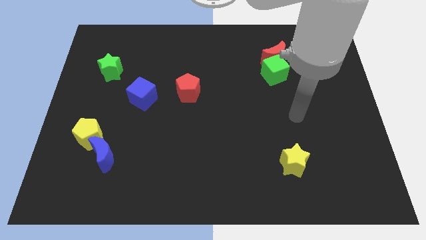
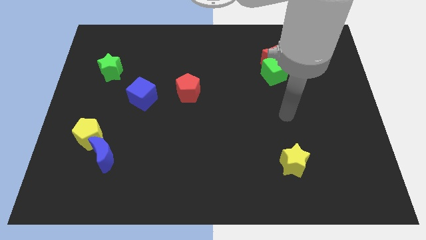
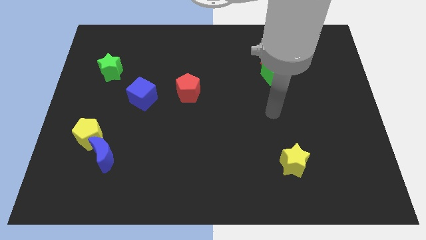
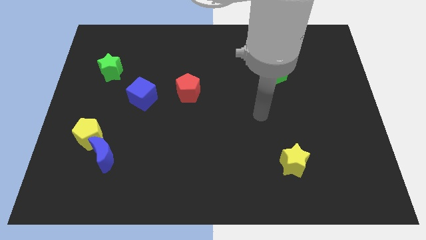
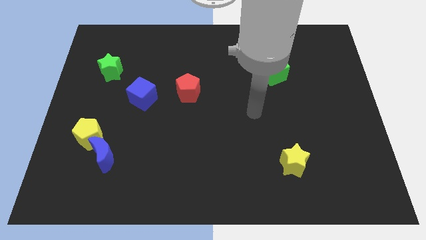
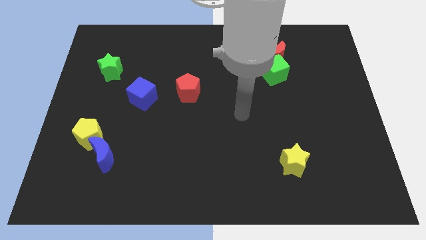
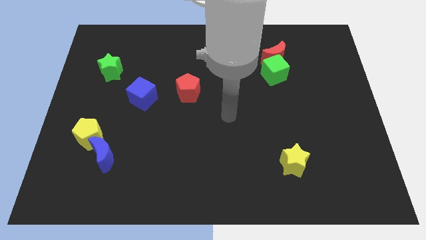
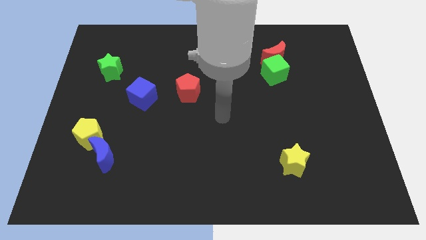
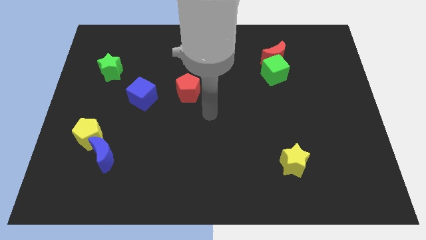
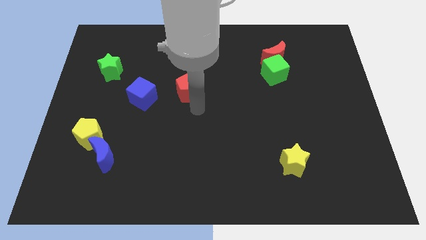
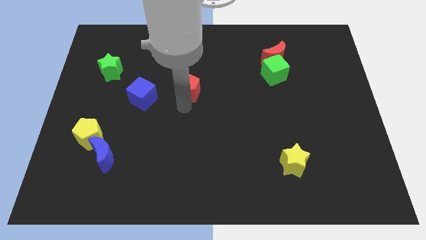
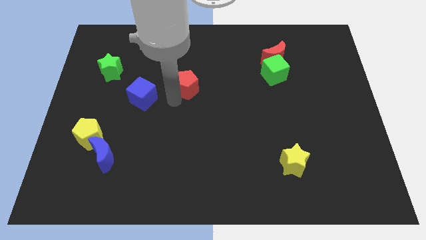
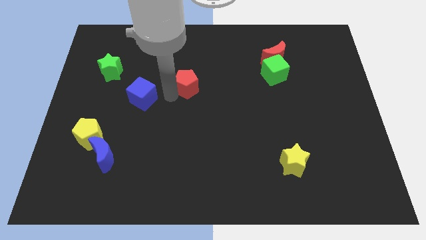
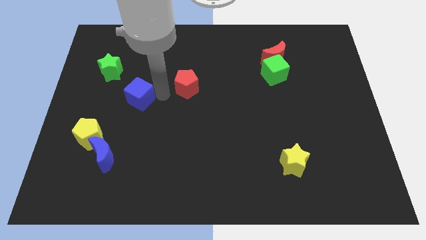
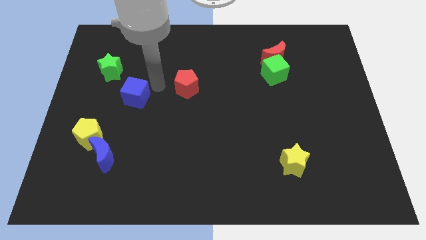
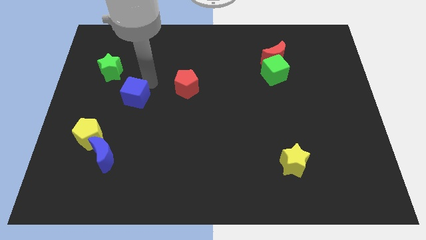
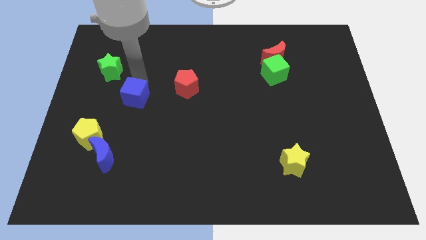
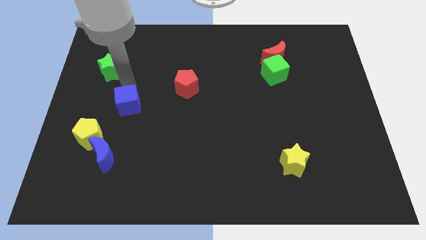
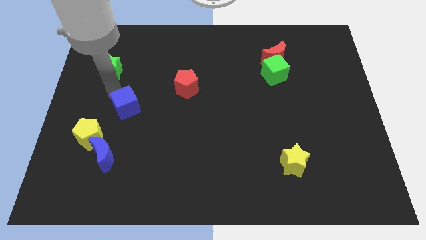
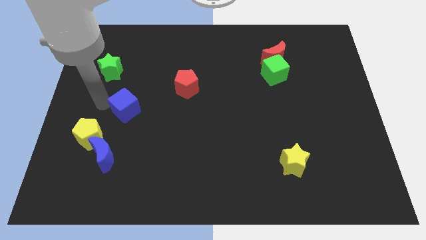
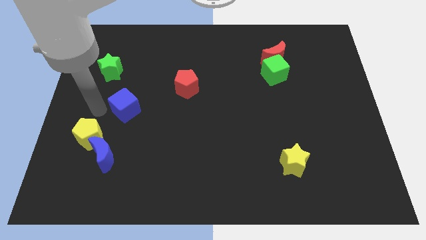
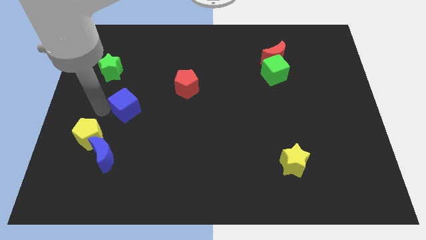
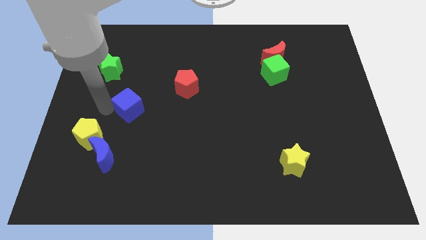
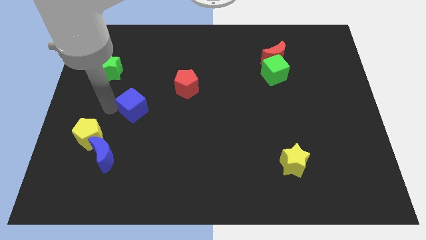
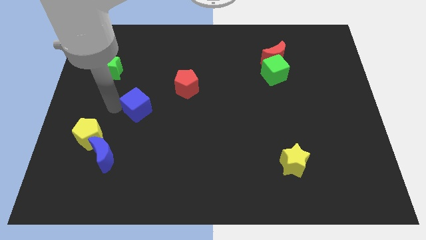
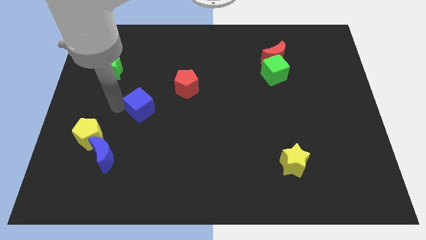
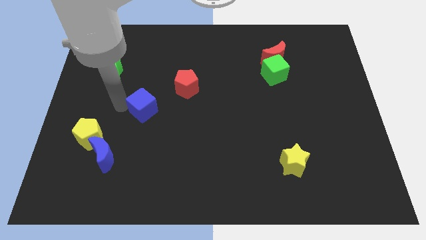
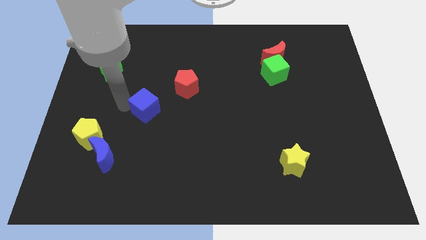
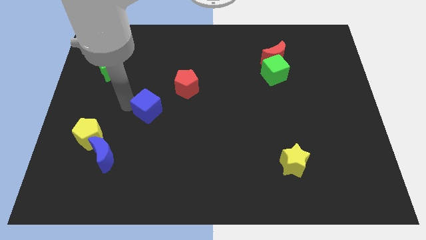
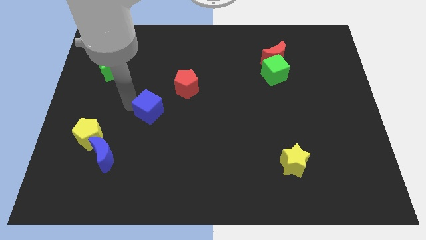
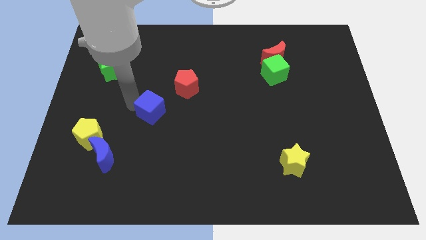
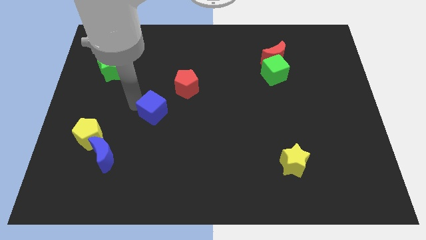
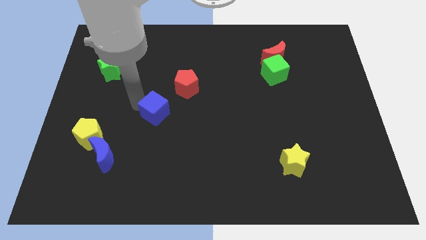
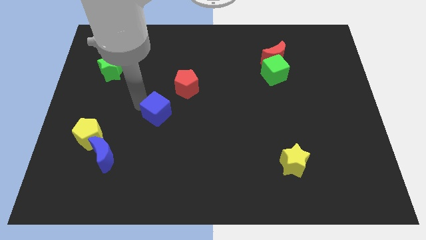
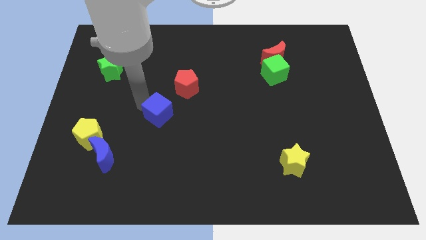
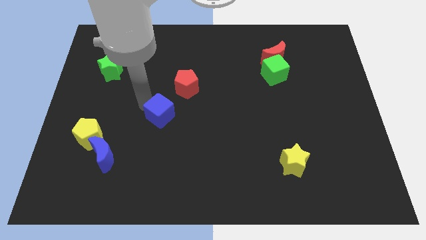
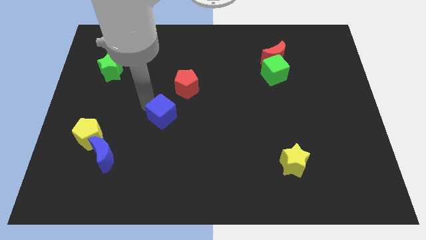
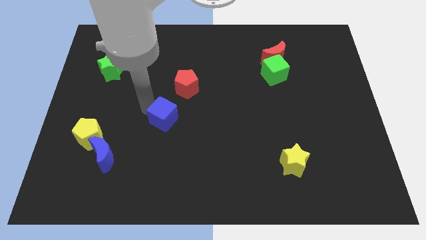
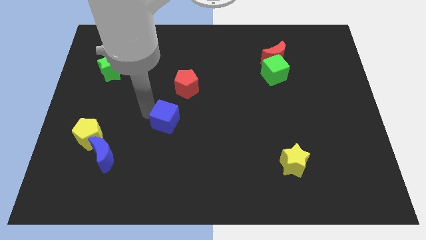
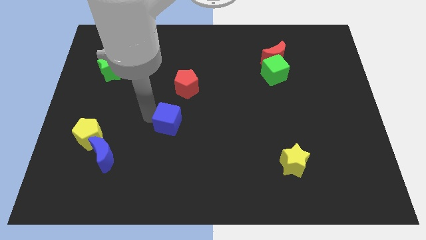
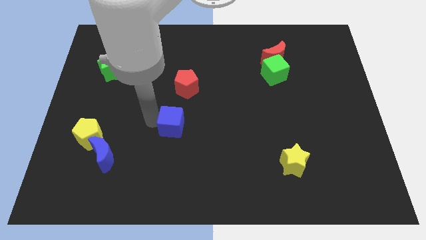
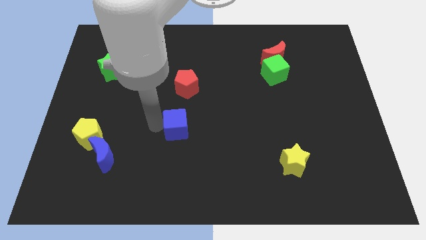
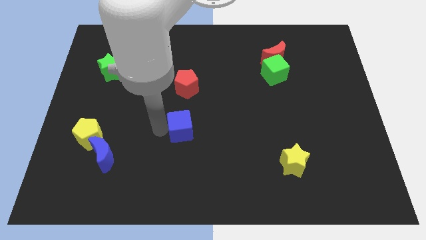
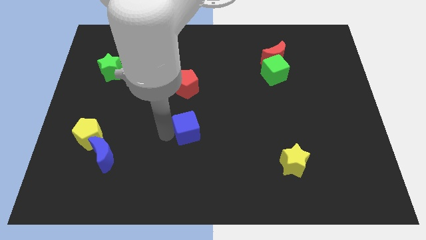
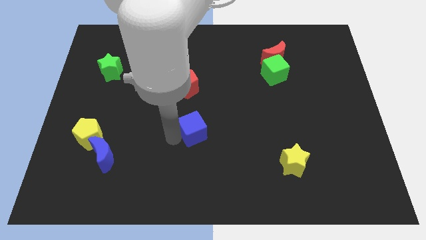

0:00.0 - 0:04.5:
slide the blue cube a bit to the right

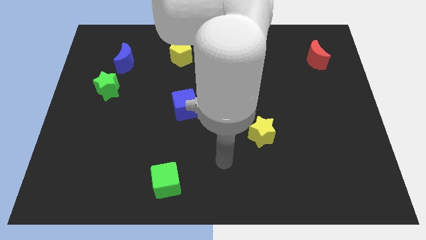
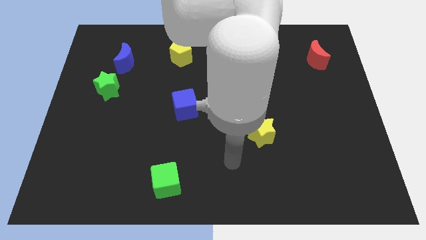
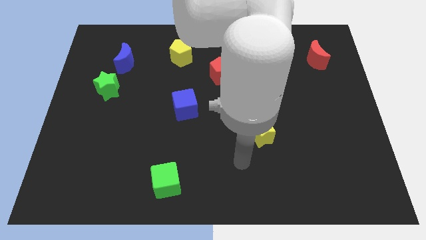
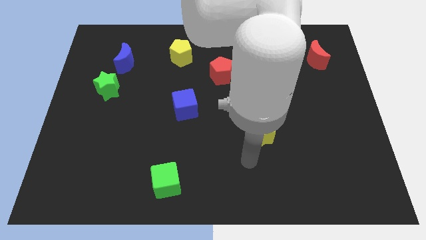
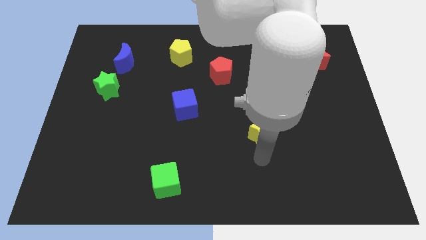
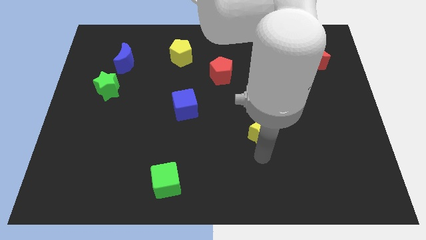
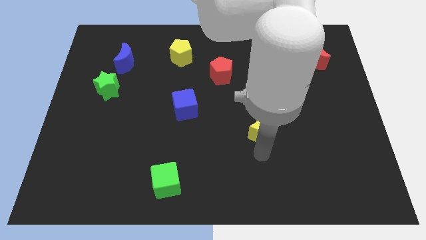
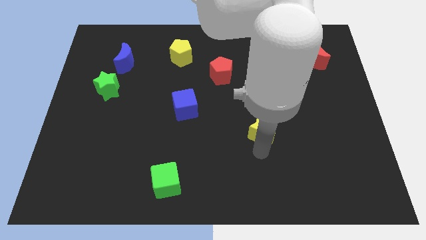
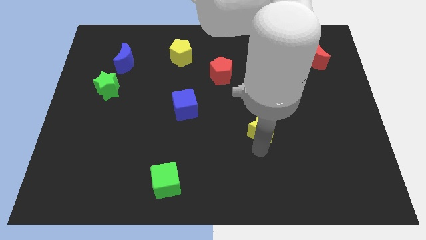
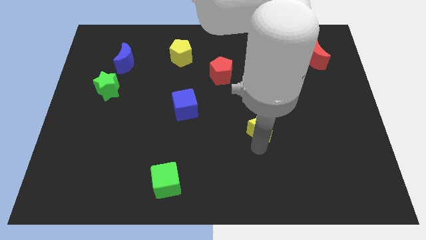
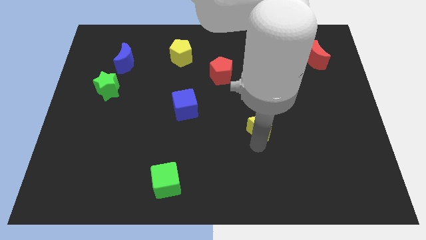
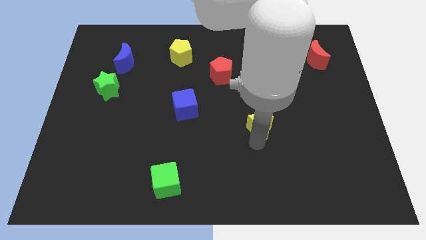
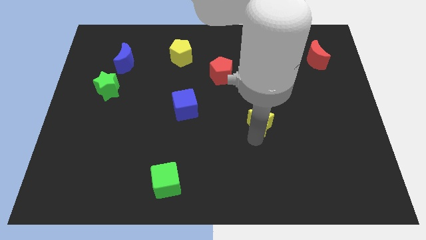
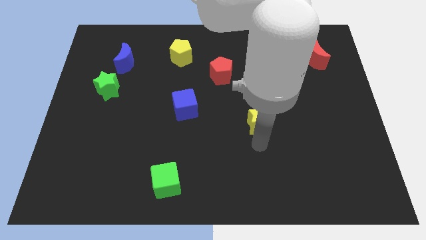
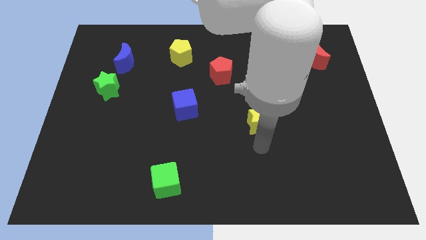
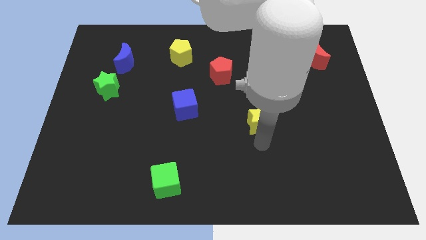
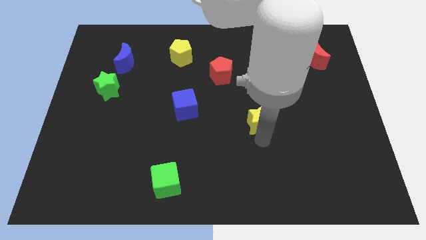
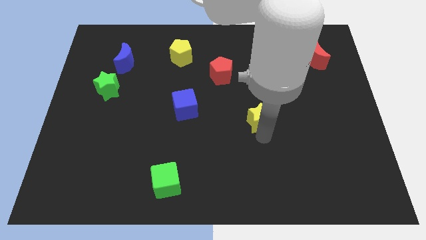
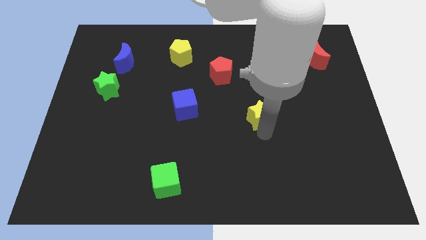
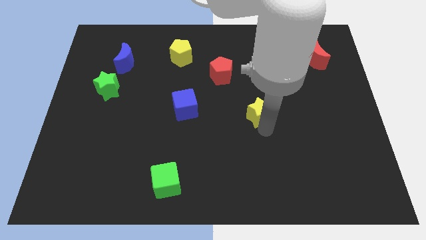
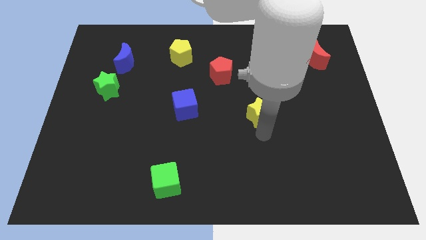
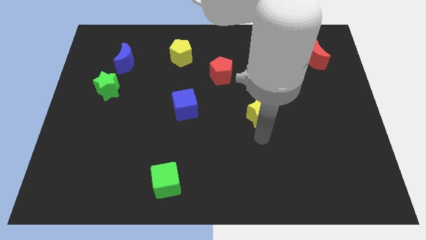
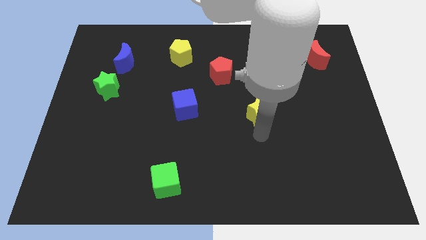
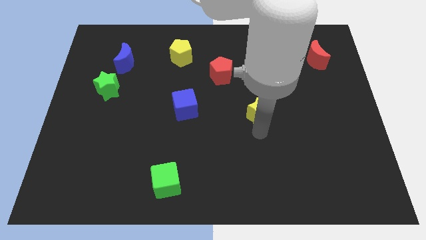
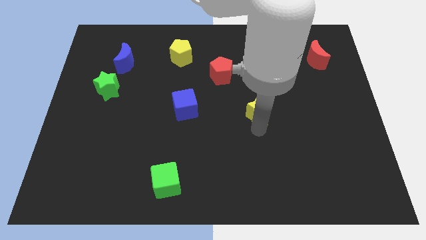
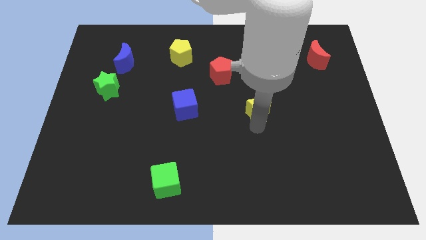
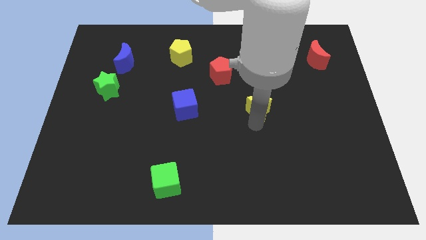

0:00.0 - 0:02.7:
slightly slide the yellow star up

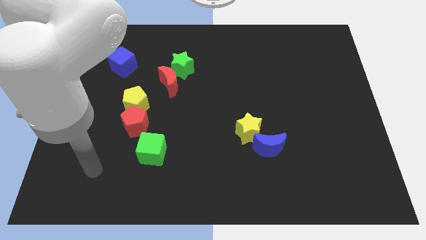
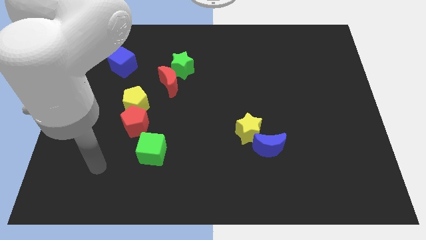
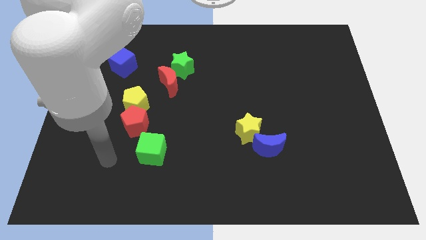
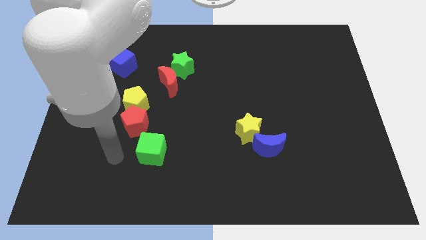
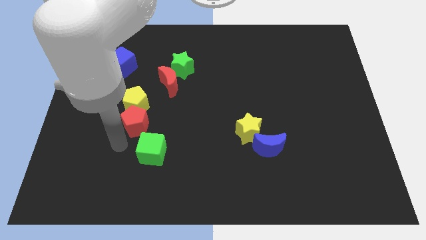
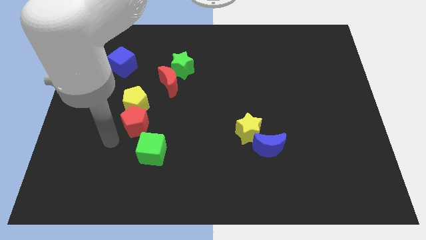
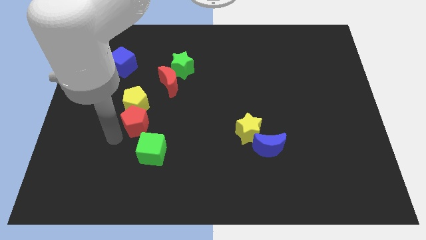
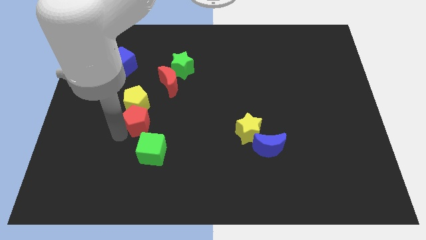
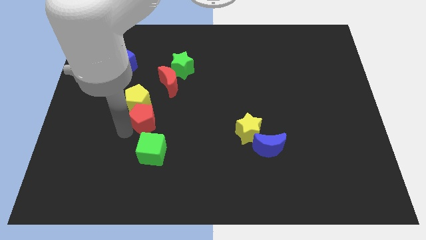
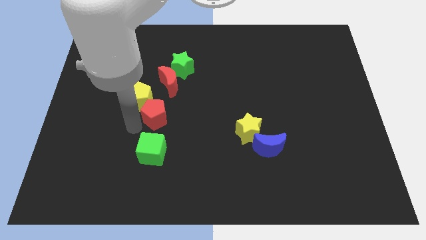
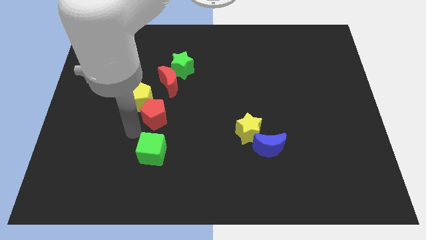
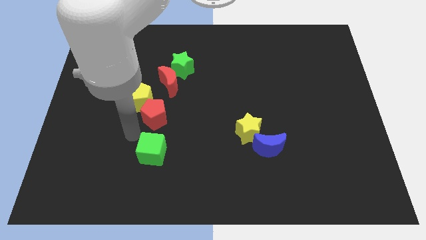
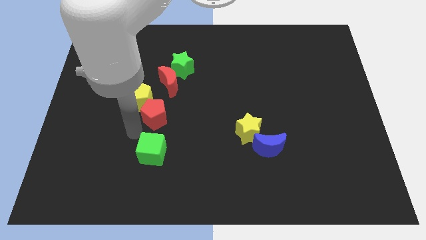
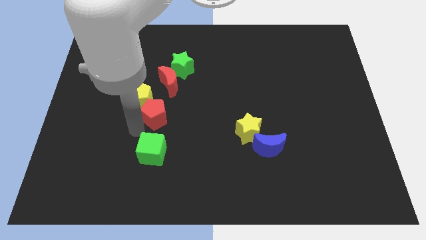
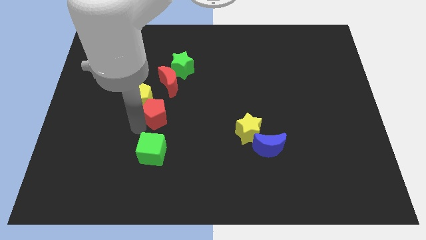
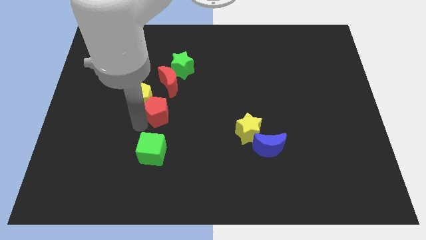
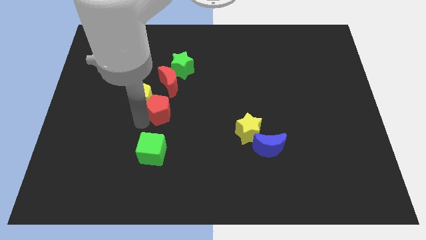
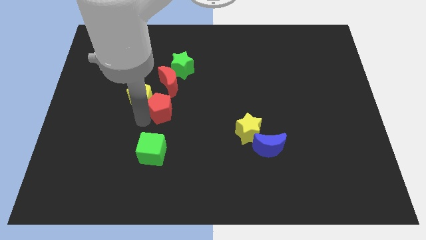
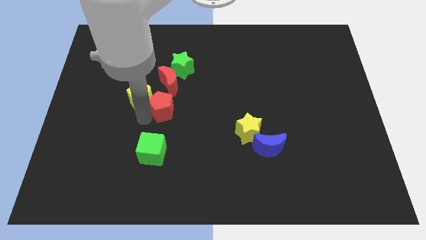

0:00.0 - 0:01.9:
push the red pentagon up and to the right diagonally a bit
